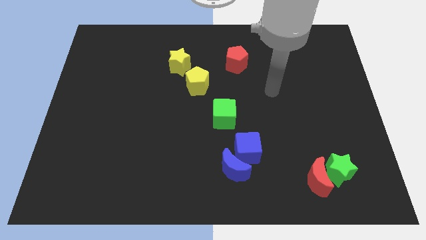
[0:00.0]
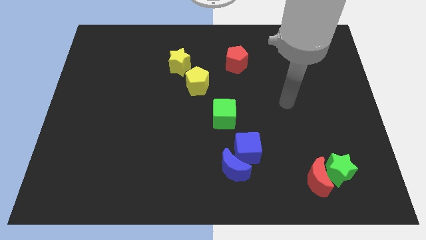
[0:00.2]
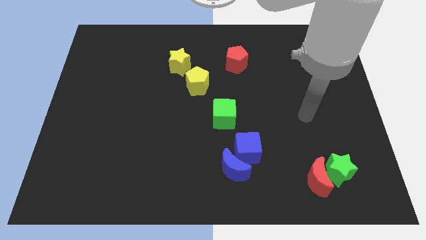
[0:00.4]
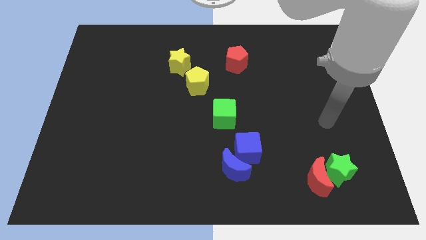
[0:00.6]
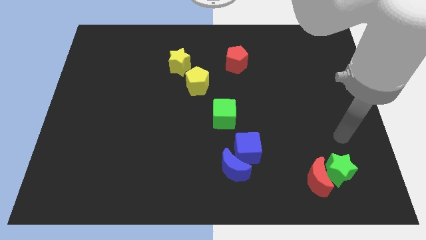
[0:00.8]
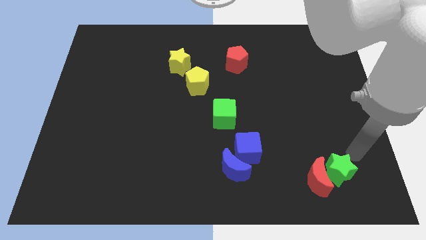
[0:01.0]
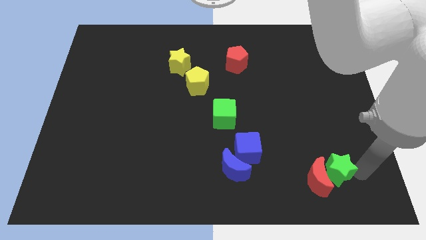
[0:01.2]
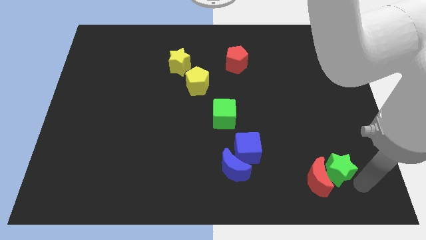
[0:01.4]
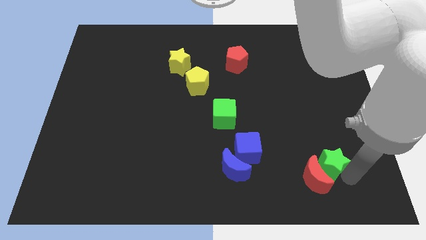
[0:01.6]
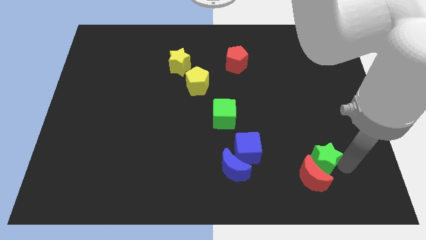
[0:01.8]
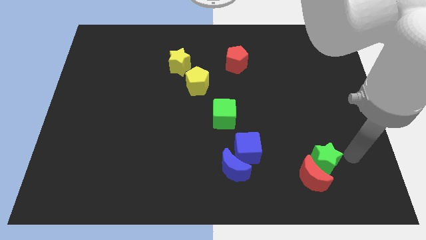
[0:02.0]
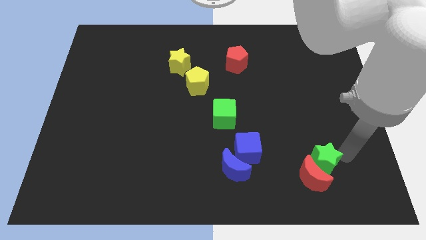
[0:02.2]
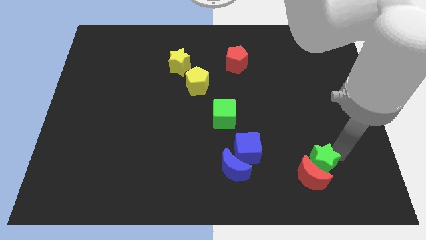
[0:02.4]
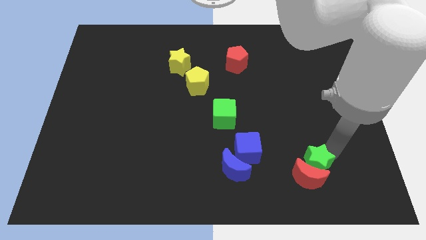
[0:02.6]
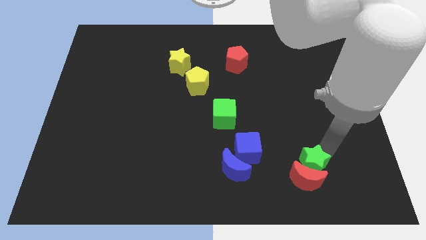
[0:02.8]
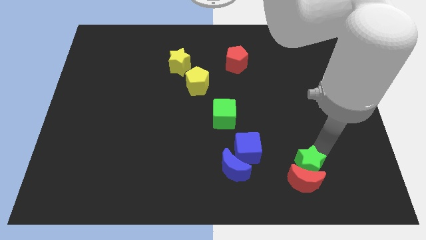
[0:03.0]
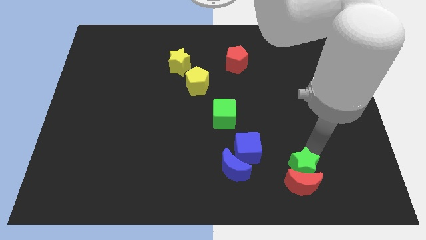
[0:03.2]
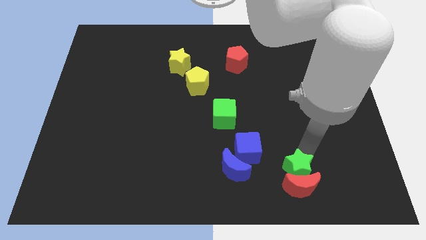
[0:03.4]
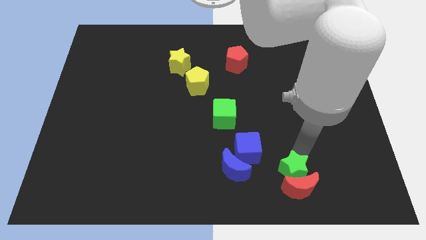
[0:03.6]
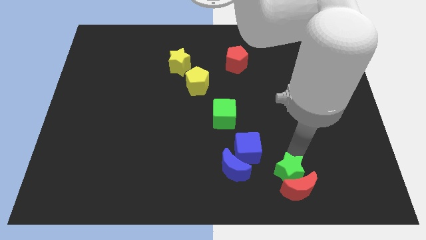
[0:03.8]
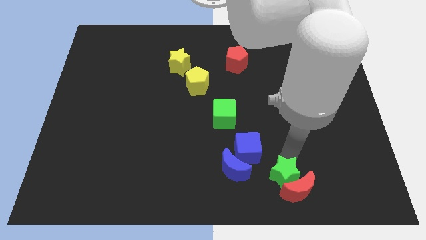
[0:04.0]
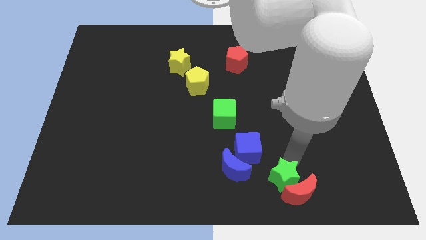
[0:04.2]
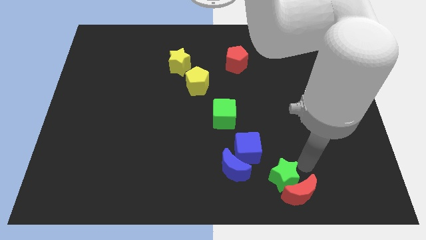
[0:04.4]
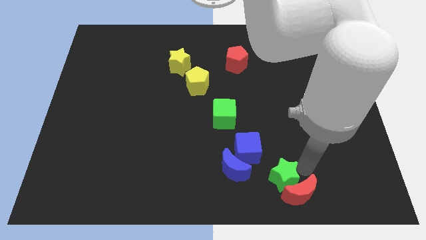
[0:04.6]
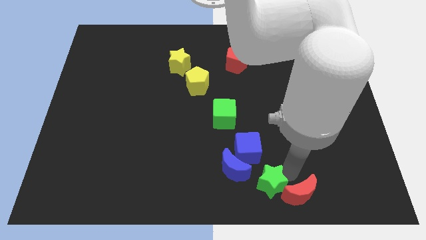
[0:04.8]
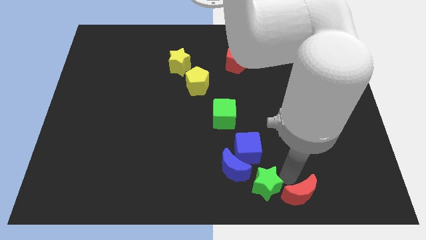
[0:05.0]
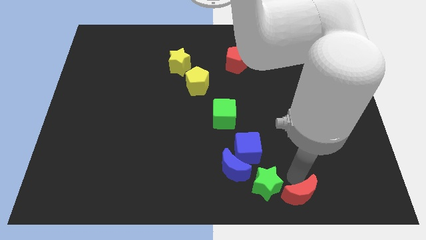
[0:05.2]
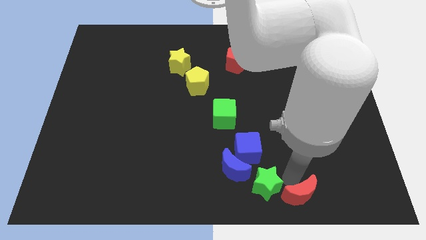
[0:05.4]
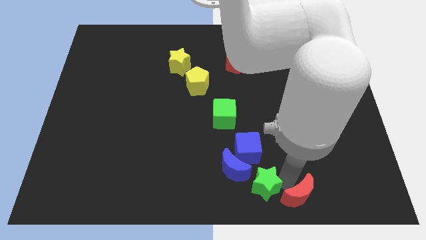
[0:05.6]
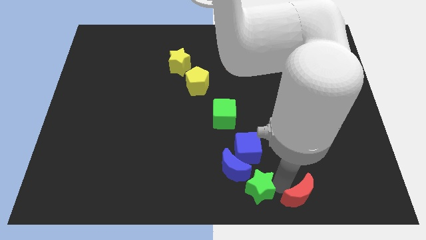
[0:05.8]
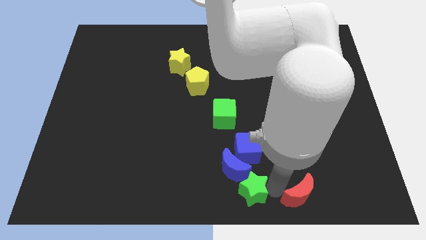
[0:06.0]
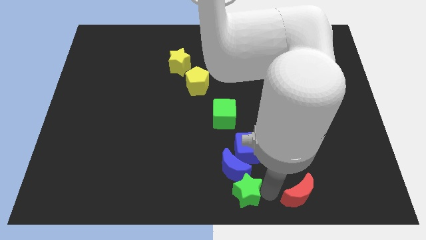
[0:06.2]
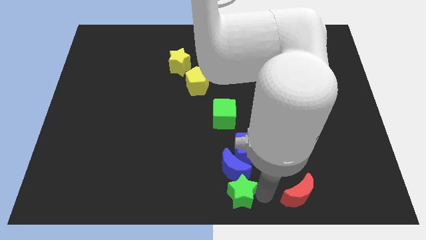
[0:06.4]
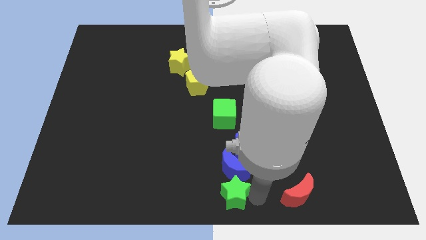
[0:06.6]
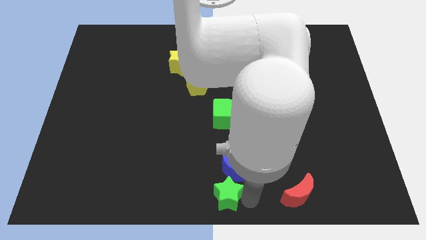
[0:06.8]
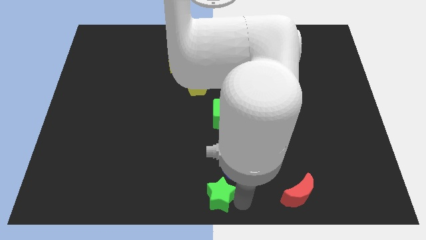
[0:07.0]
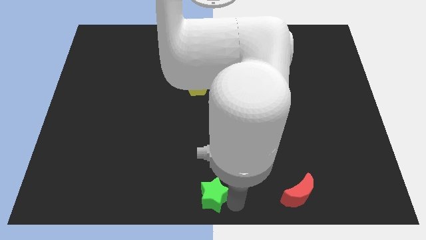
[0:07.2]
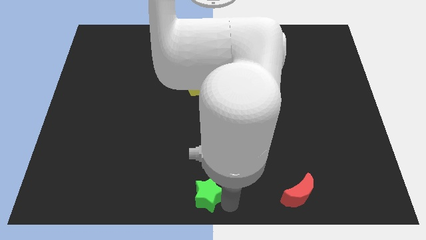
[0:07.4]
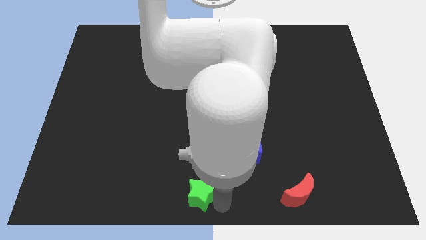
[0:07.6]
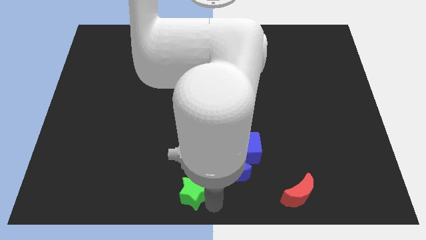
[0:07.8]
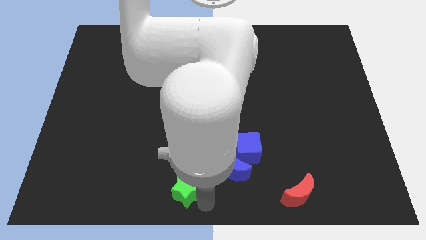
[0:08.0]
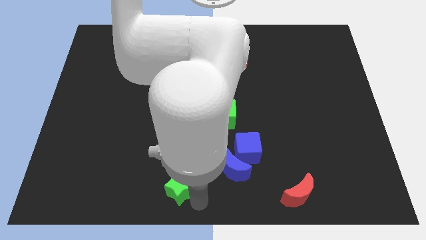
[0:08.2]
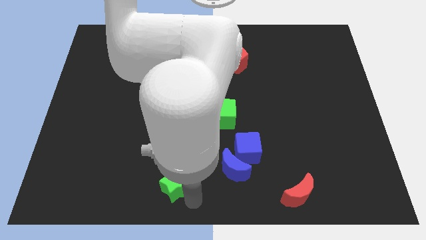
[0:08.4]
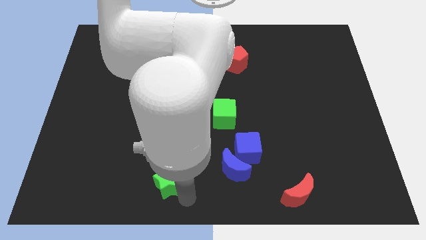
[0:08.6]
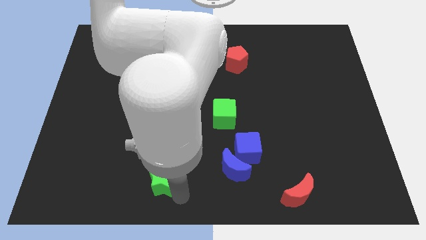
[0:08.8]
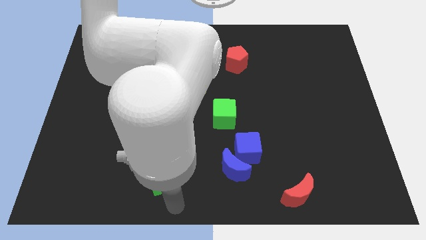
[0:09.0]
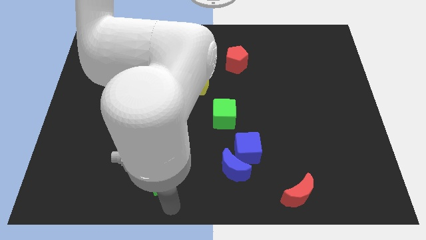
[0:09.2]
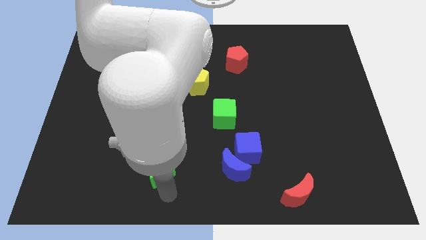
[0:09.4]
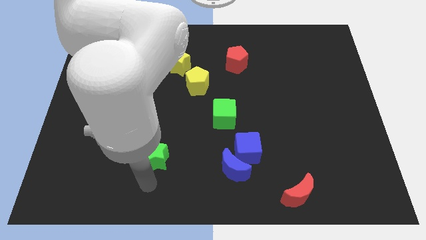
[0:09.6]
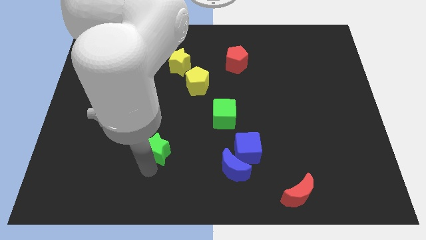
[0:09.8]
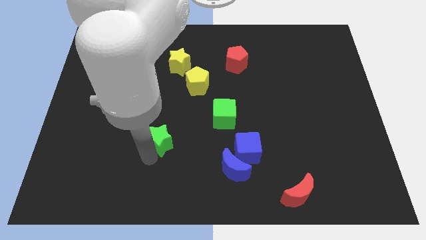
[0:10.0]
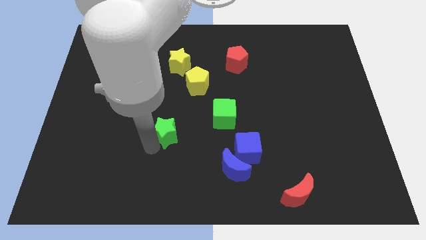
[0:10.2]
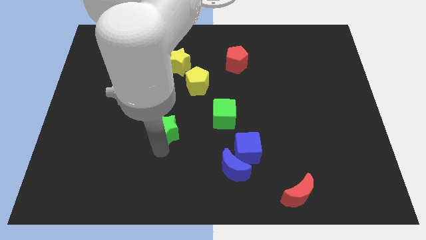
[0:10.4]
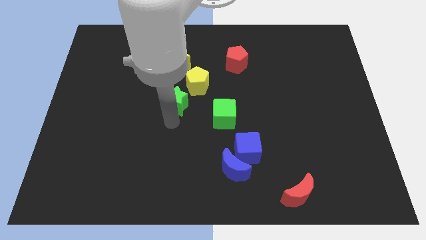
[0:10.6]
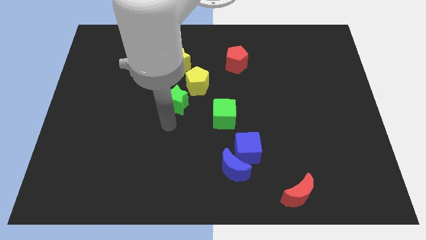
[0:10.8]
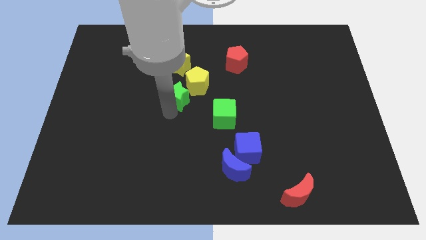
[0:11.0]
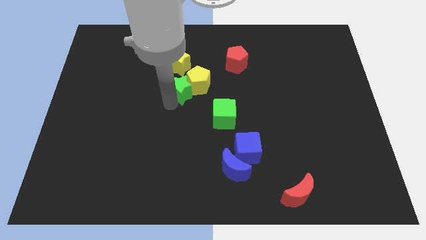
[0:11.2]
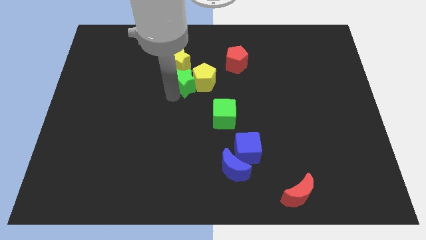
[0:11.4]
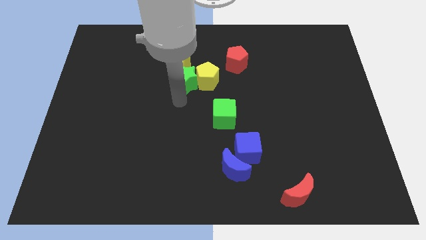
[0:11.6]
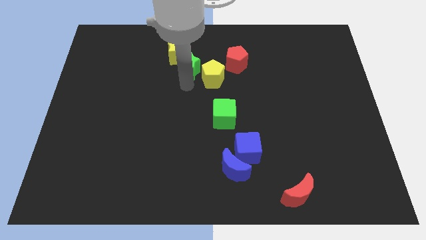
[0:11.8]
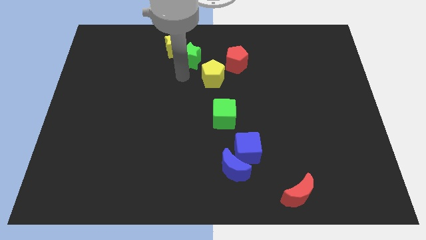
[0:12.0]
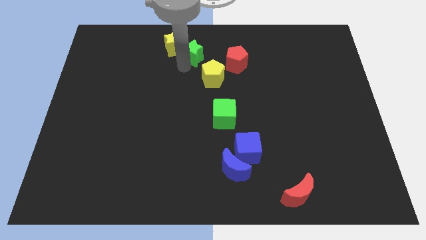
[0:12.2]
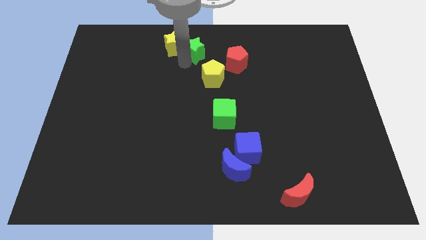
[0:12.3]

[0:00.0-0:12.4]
put the green star to the top side

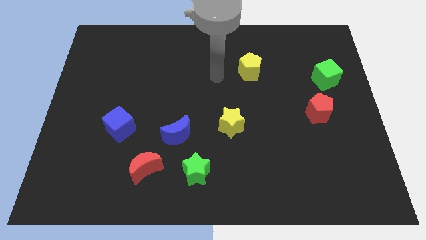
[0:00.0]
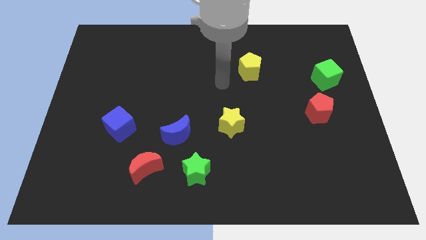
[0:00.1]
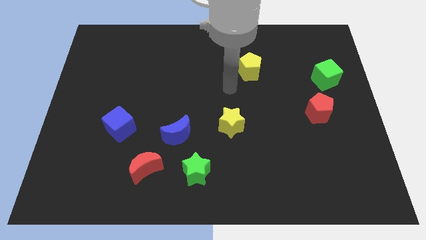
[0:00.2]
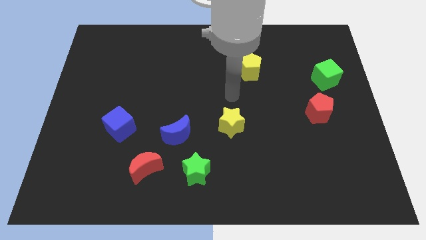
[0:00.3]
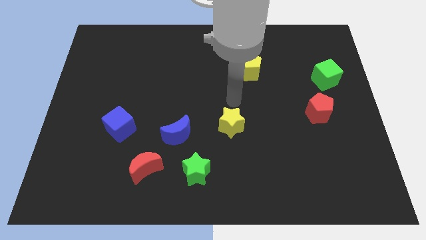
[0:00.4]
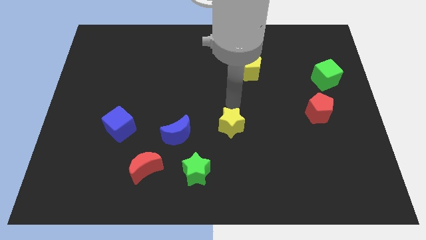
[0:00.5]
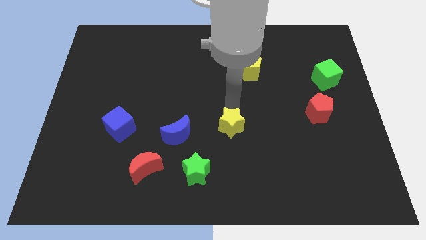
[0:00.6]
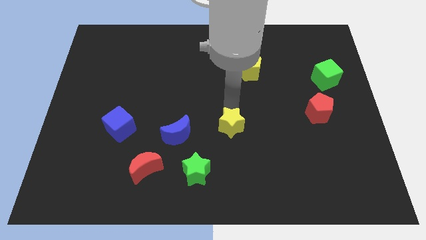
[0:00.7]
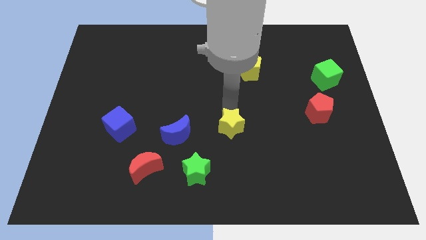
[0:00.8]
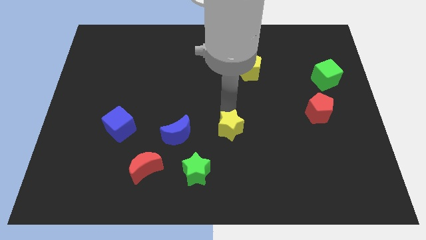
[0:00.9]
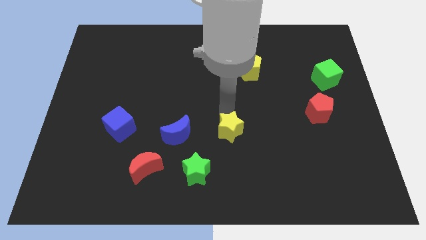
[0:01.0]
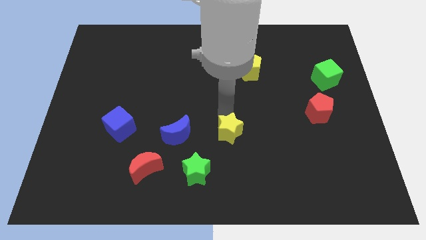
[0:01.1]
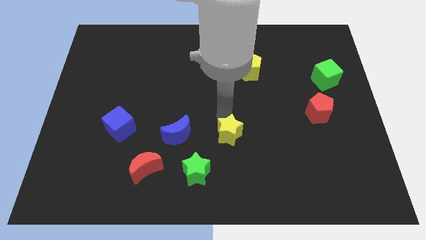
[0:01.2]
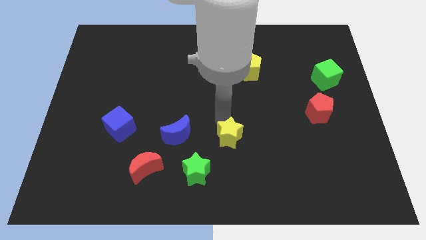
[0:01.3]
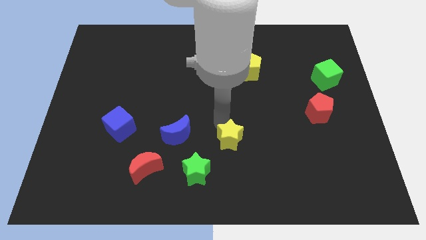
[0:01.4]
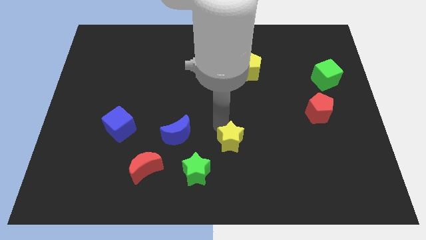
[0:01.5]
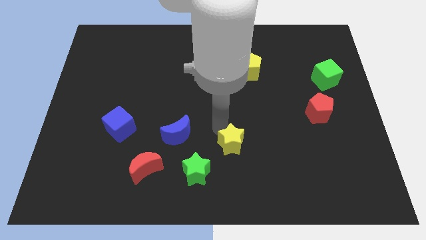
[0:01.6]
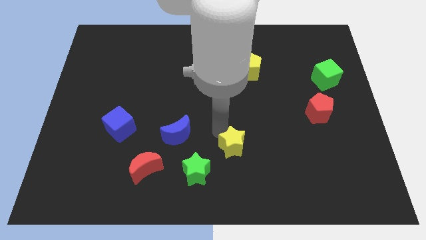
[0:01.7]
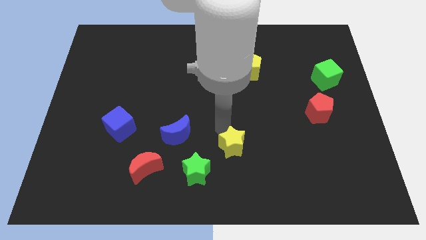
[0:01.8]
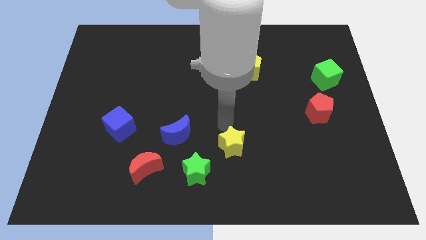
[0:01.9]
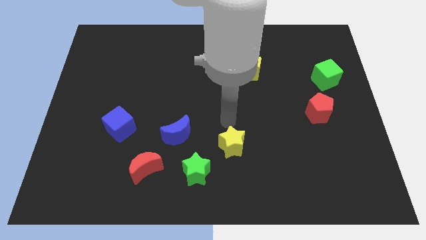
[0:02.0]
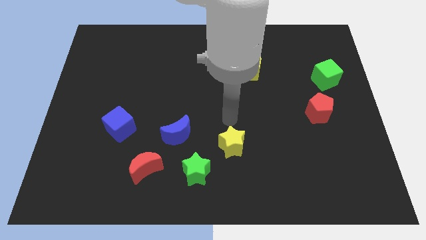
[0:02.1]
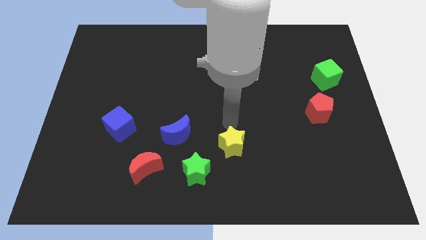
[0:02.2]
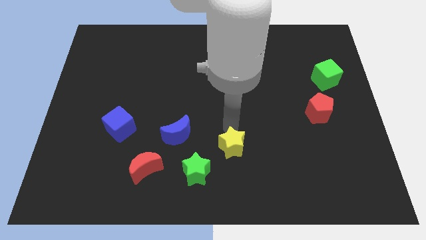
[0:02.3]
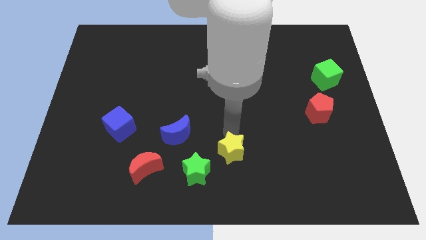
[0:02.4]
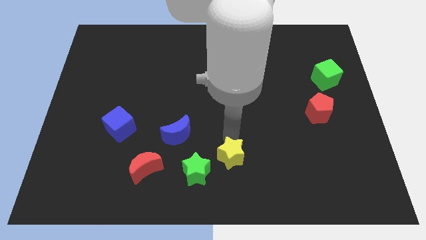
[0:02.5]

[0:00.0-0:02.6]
push the yellow star to the bottom
